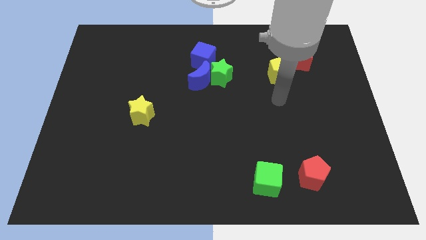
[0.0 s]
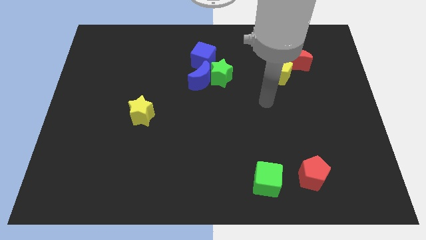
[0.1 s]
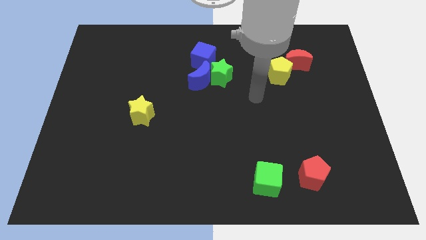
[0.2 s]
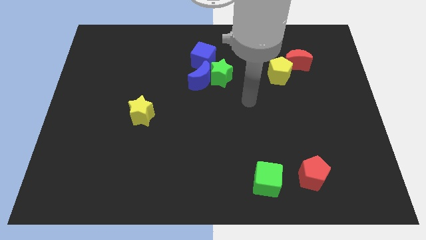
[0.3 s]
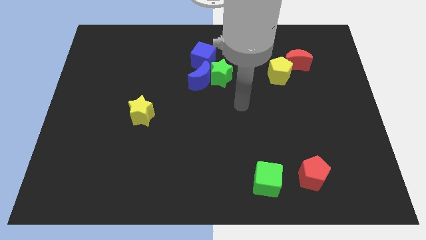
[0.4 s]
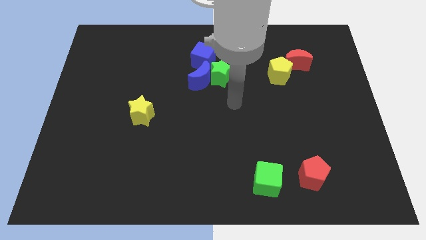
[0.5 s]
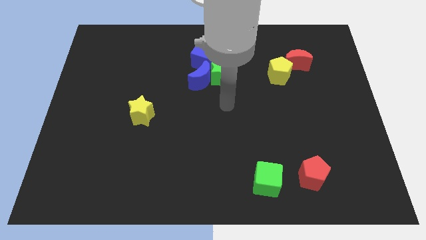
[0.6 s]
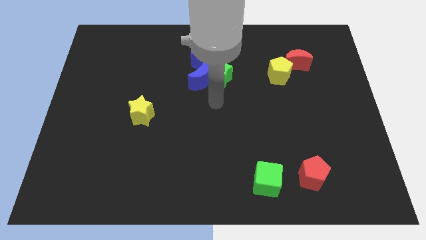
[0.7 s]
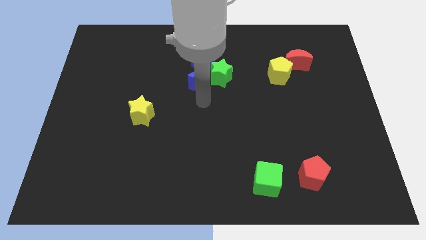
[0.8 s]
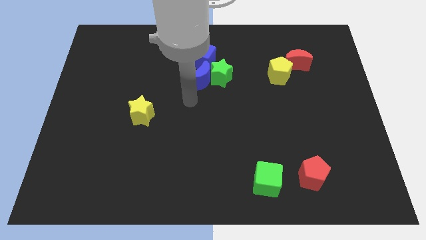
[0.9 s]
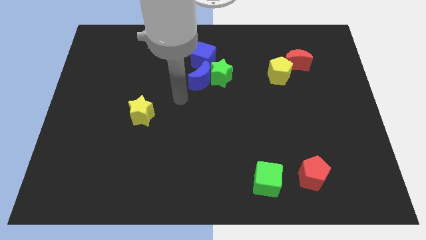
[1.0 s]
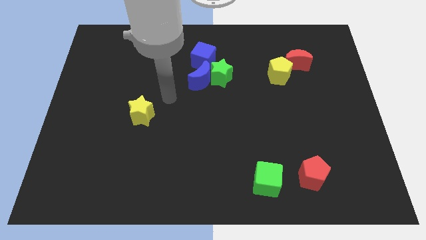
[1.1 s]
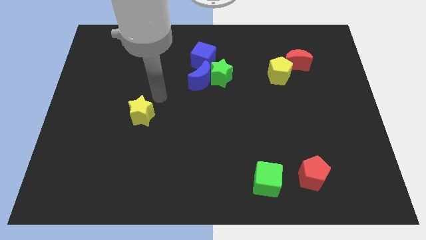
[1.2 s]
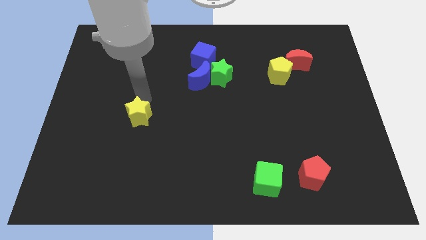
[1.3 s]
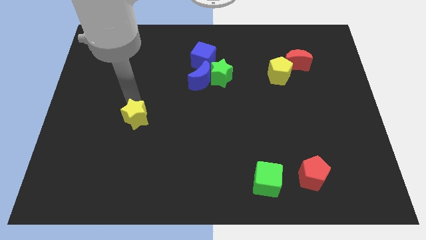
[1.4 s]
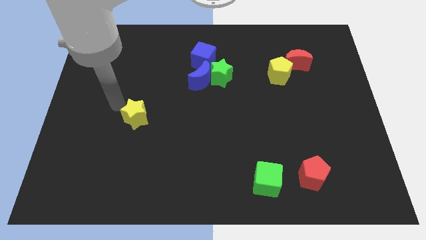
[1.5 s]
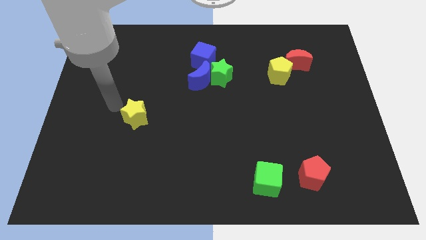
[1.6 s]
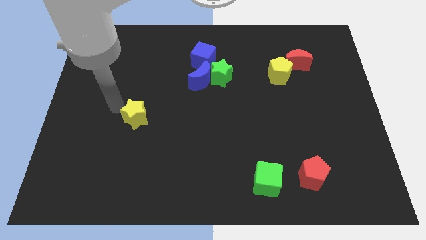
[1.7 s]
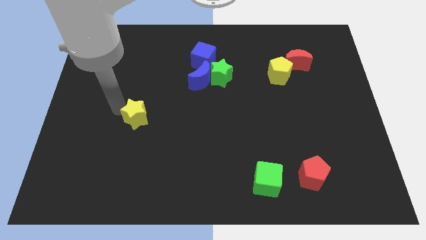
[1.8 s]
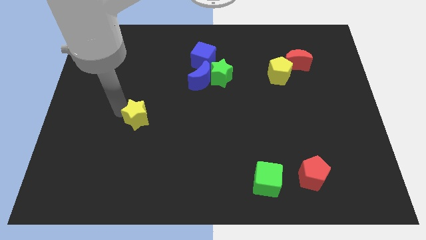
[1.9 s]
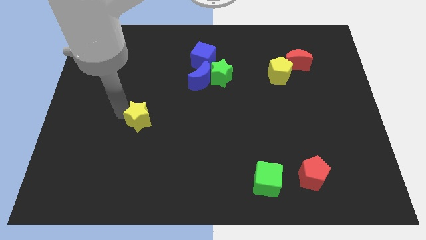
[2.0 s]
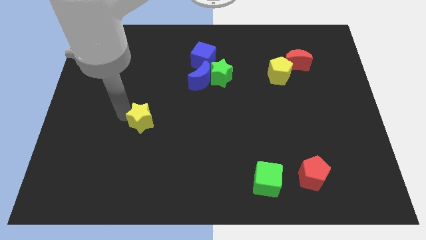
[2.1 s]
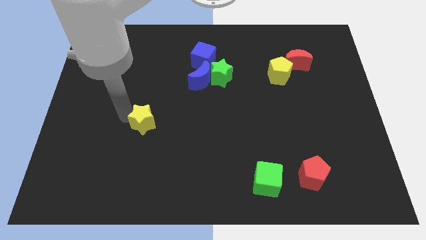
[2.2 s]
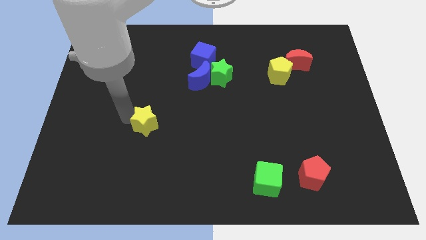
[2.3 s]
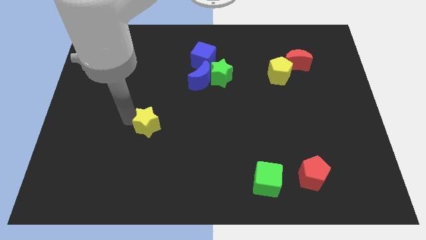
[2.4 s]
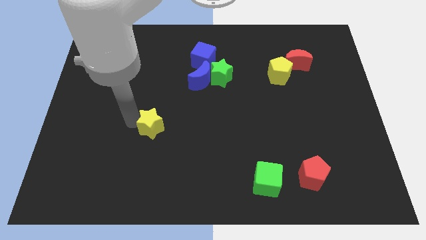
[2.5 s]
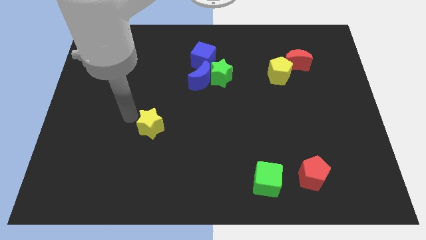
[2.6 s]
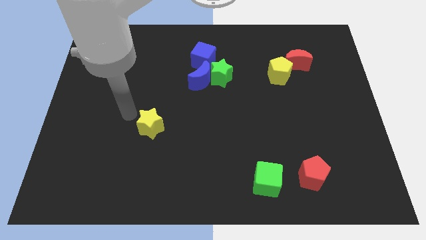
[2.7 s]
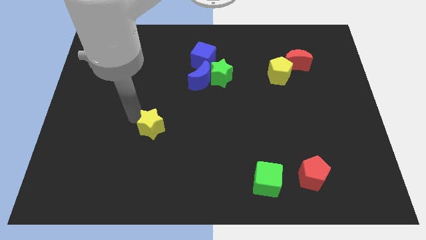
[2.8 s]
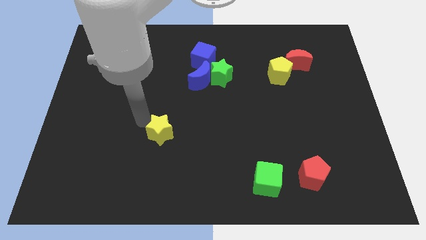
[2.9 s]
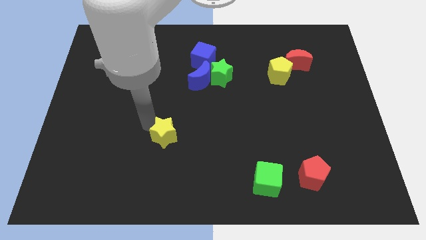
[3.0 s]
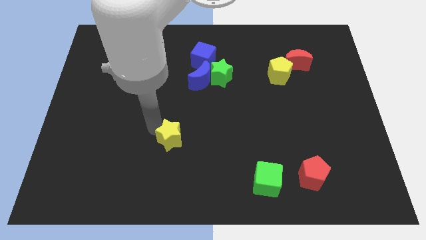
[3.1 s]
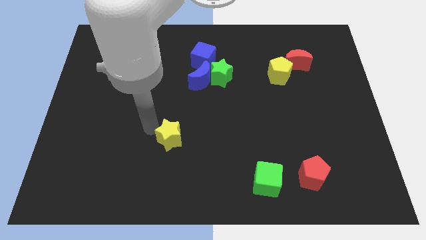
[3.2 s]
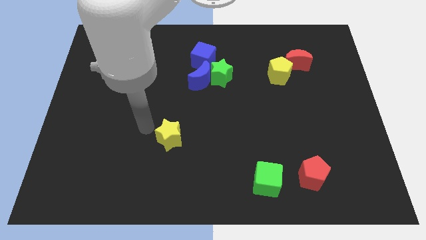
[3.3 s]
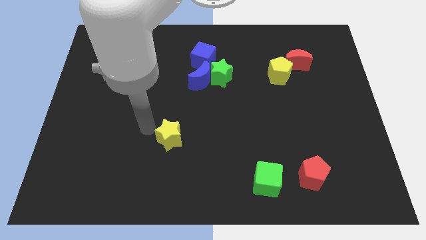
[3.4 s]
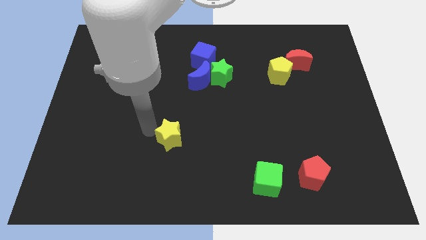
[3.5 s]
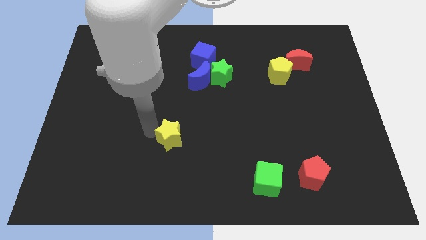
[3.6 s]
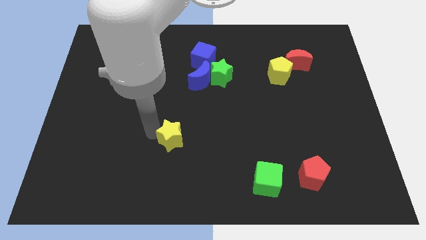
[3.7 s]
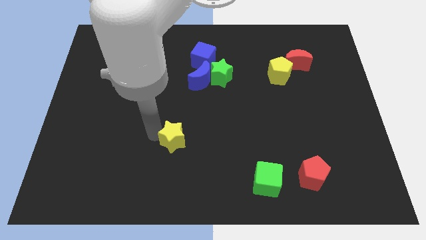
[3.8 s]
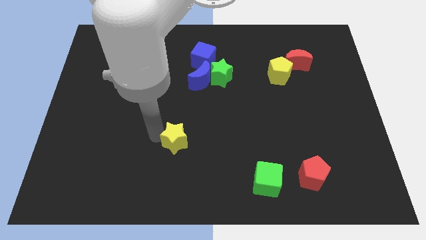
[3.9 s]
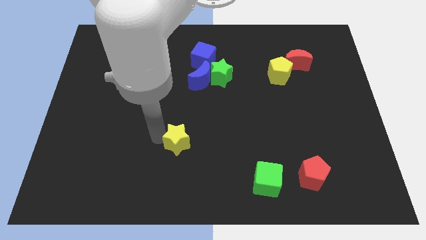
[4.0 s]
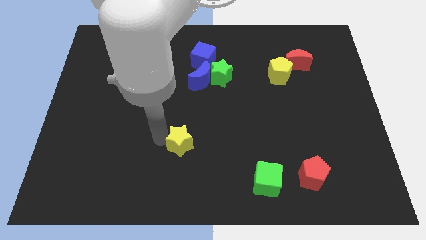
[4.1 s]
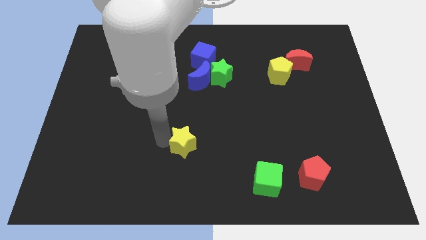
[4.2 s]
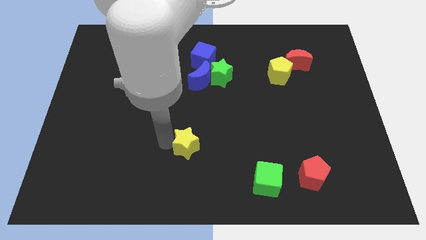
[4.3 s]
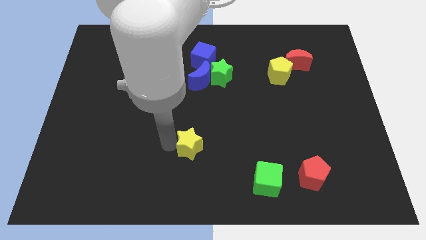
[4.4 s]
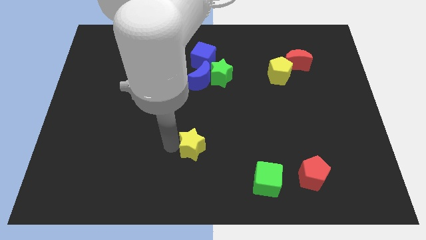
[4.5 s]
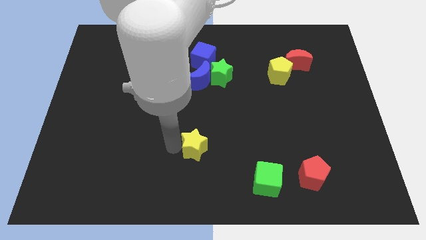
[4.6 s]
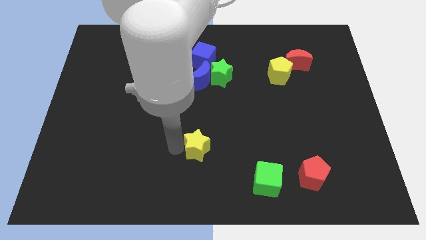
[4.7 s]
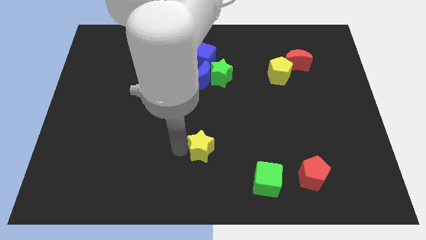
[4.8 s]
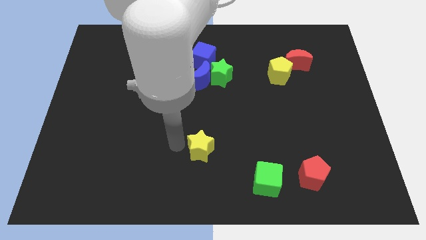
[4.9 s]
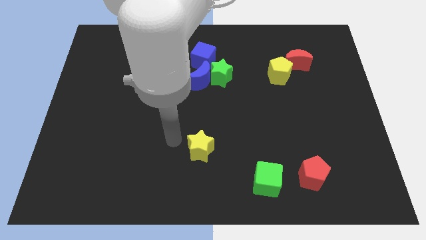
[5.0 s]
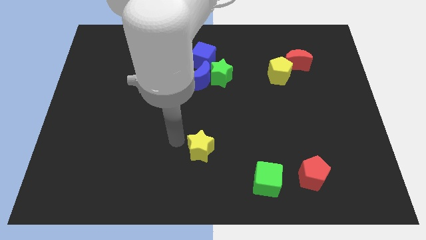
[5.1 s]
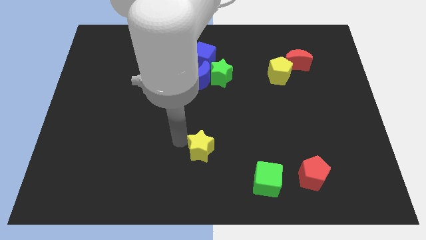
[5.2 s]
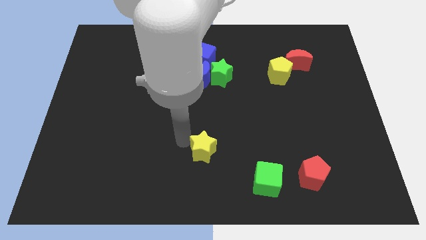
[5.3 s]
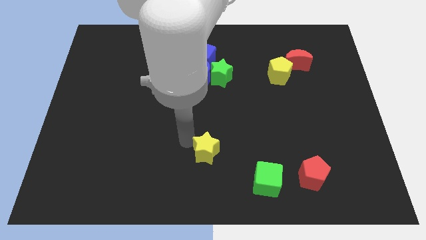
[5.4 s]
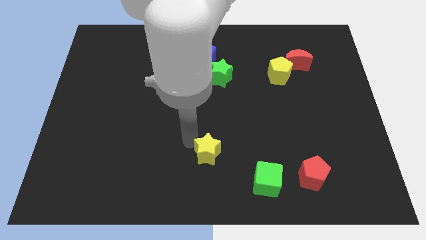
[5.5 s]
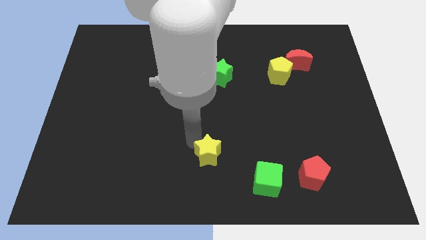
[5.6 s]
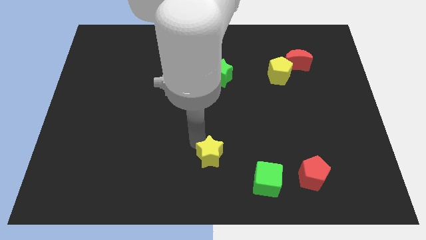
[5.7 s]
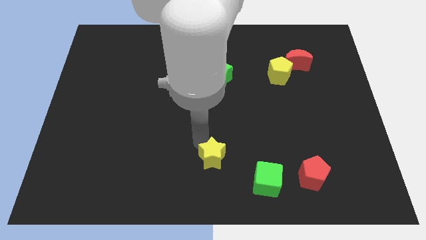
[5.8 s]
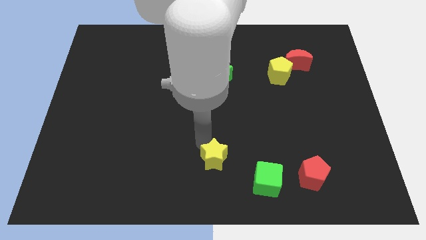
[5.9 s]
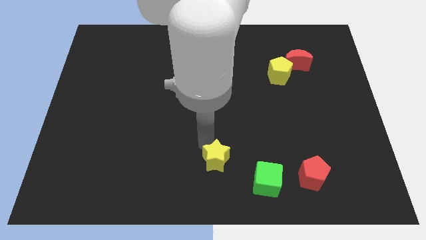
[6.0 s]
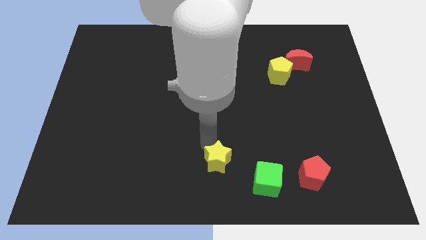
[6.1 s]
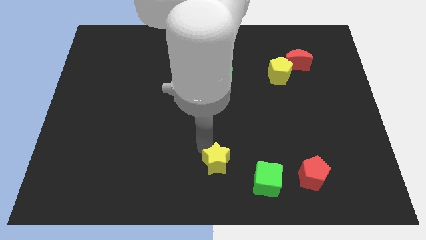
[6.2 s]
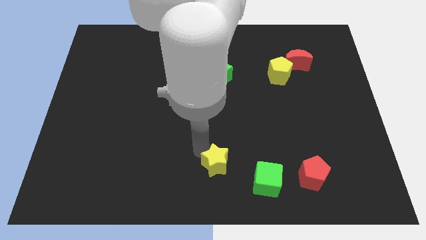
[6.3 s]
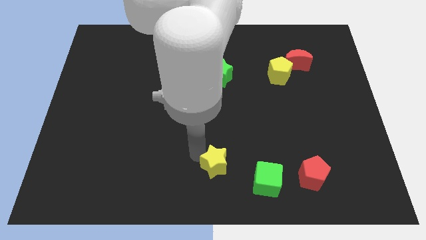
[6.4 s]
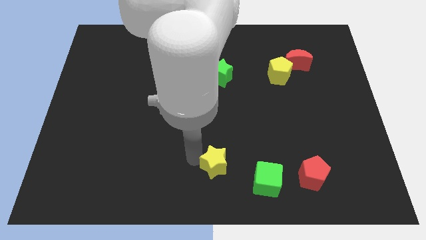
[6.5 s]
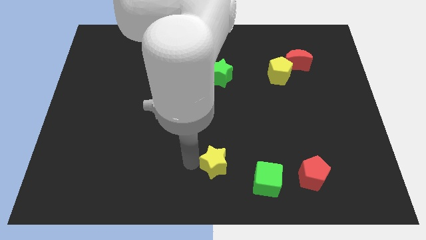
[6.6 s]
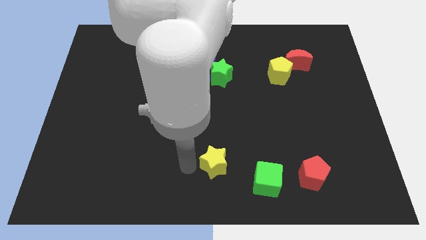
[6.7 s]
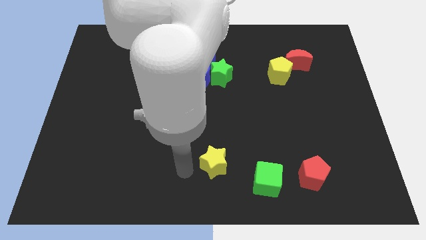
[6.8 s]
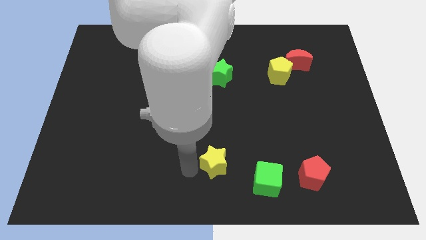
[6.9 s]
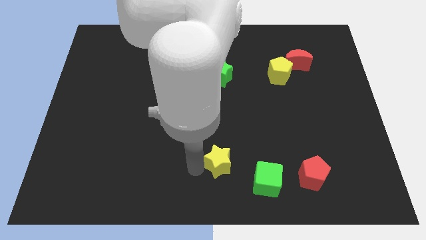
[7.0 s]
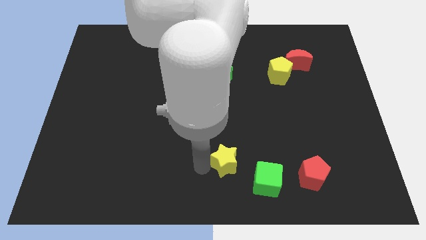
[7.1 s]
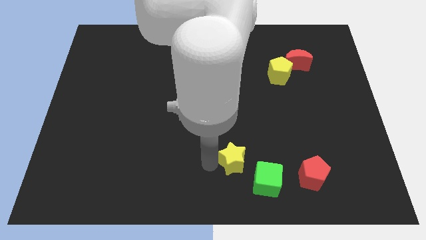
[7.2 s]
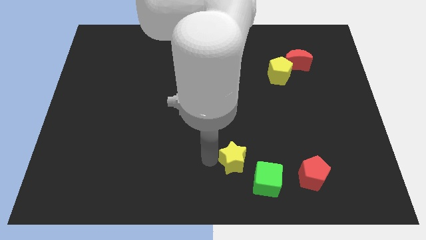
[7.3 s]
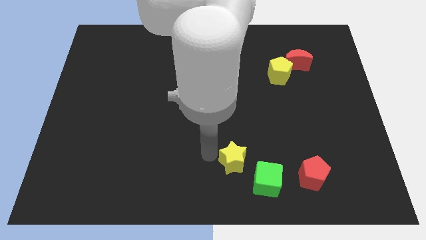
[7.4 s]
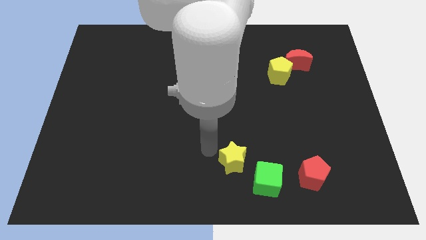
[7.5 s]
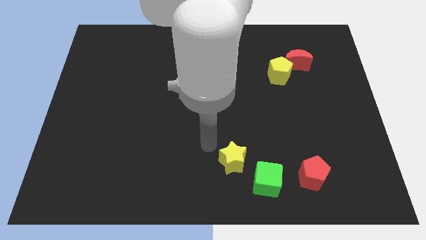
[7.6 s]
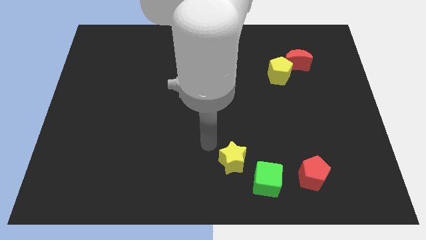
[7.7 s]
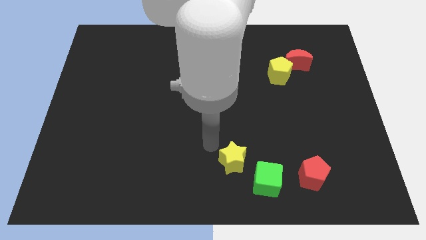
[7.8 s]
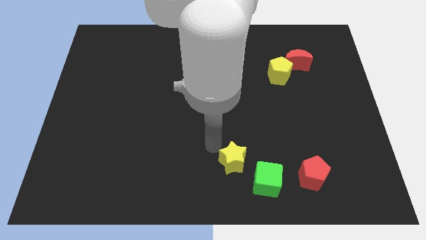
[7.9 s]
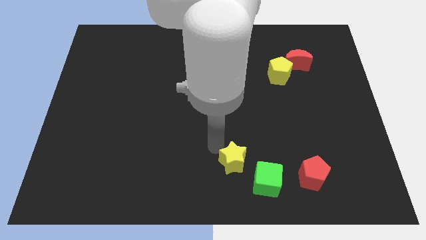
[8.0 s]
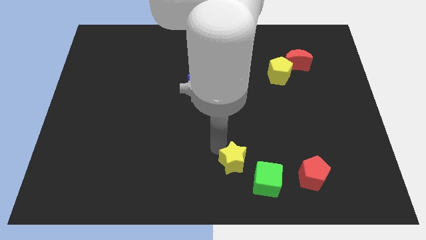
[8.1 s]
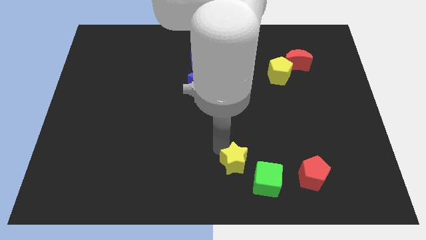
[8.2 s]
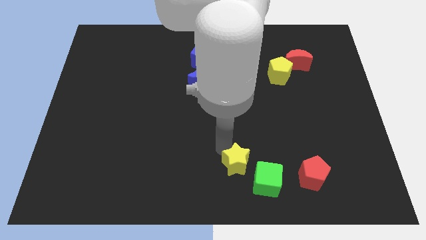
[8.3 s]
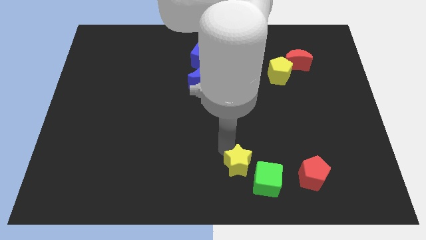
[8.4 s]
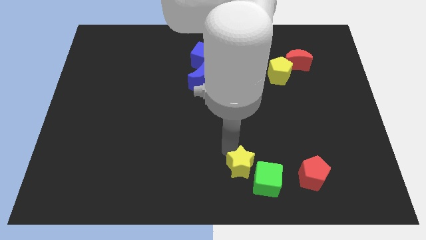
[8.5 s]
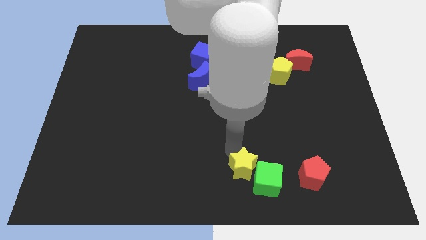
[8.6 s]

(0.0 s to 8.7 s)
put the yellow star close to the green cube
